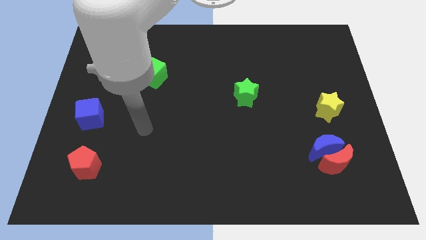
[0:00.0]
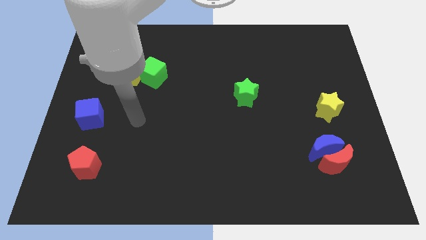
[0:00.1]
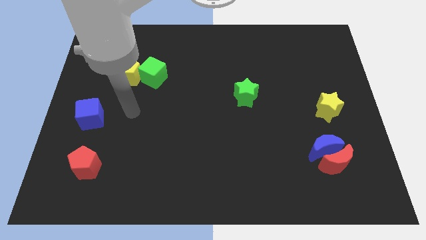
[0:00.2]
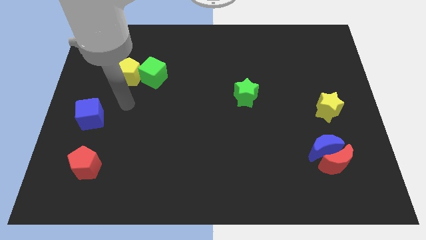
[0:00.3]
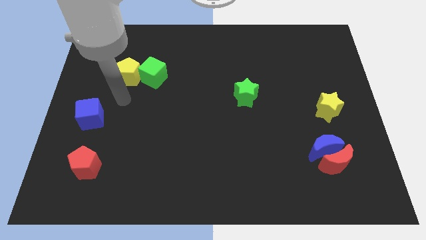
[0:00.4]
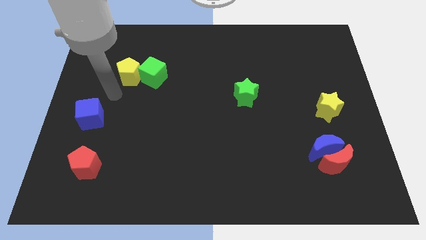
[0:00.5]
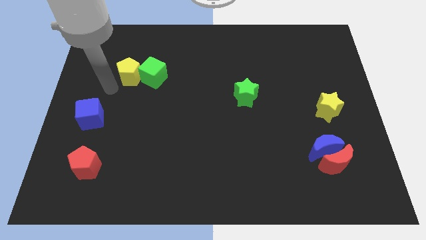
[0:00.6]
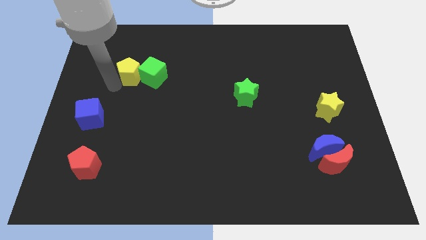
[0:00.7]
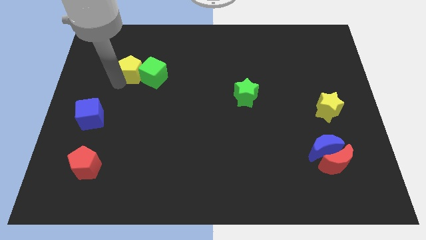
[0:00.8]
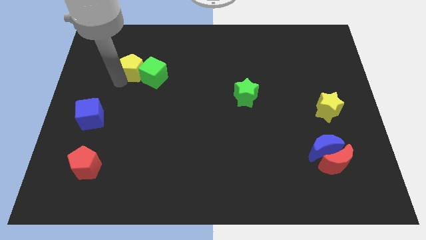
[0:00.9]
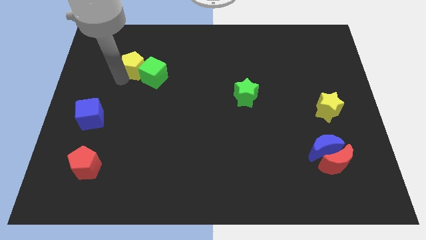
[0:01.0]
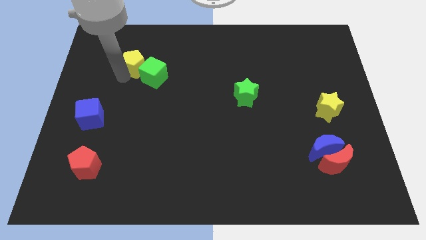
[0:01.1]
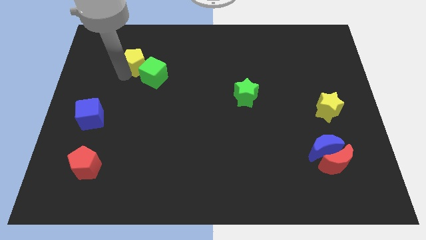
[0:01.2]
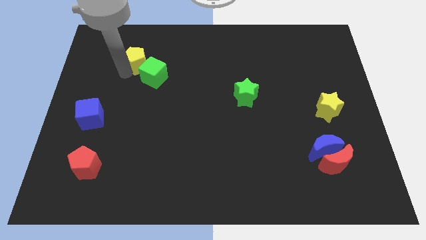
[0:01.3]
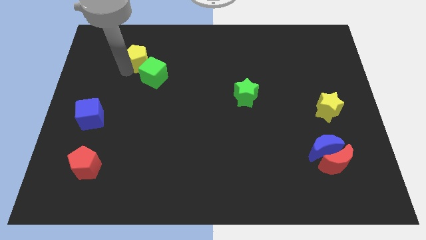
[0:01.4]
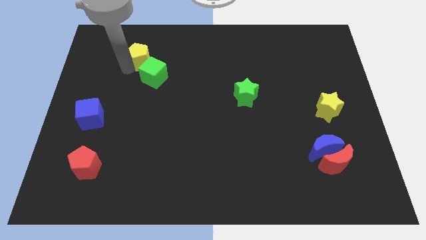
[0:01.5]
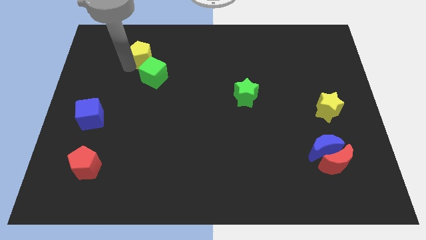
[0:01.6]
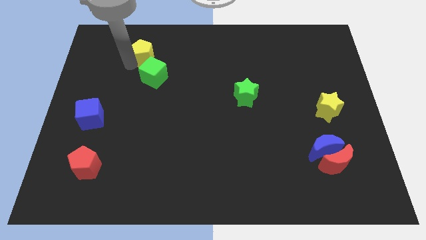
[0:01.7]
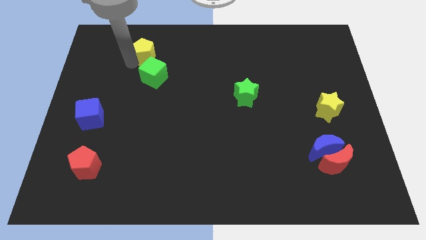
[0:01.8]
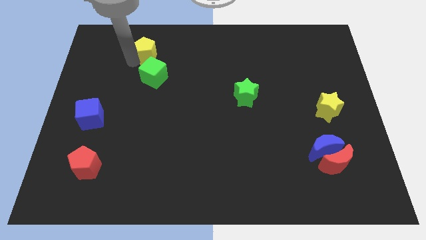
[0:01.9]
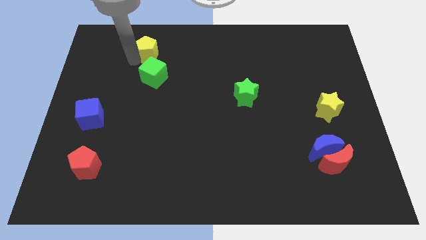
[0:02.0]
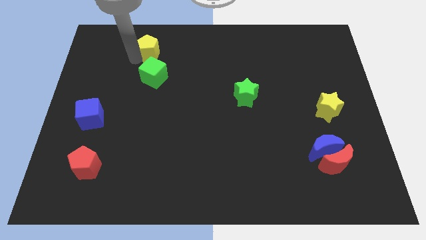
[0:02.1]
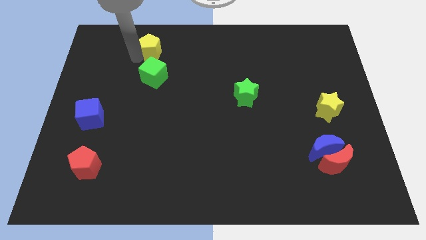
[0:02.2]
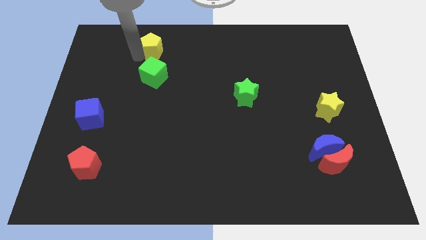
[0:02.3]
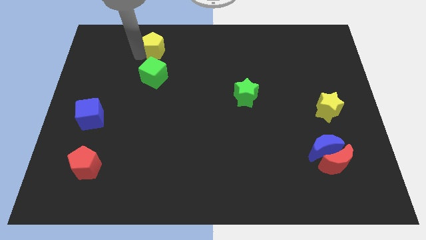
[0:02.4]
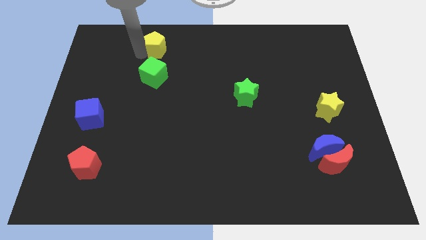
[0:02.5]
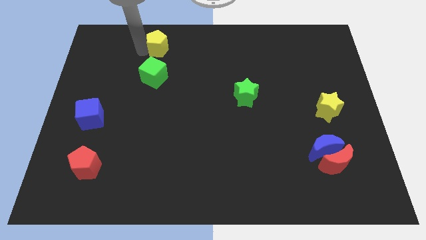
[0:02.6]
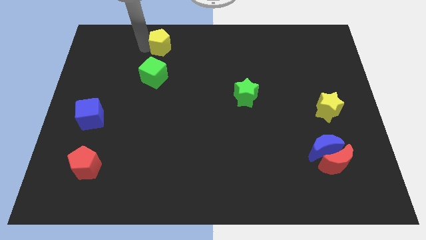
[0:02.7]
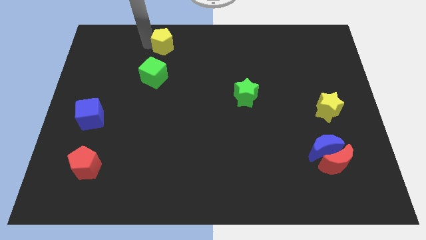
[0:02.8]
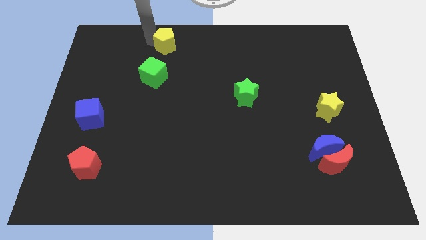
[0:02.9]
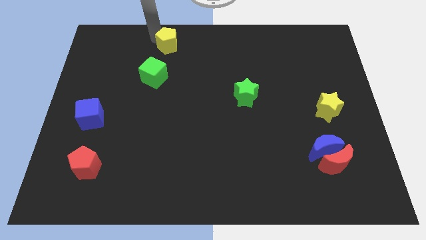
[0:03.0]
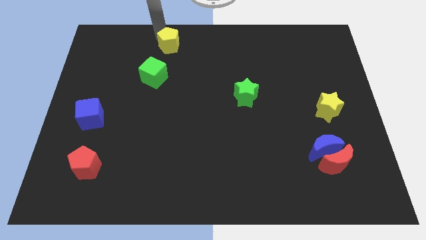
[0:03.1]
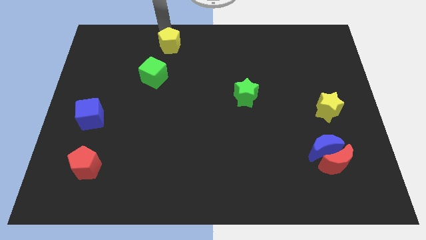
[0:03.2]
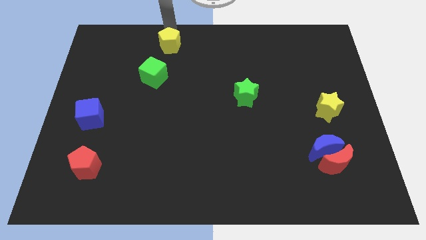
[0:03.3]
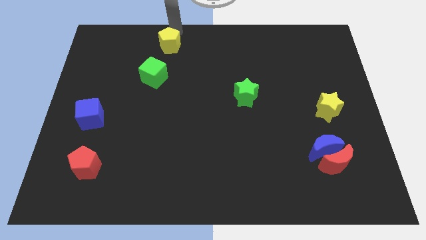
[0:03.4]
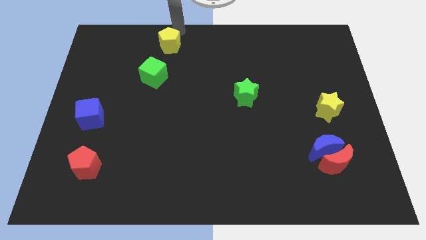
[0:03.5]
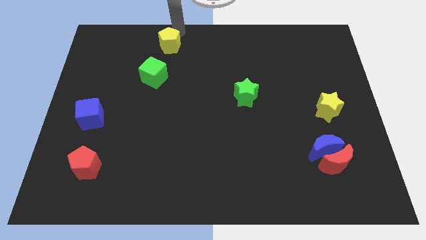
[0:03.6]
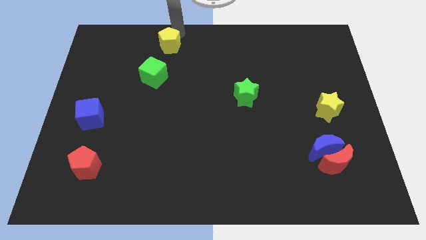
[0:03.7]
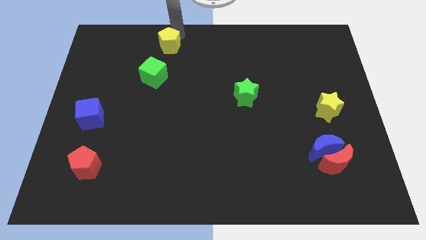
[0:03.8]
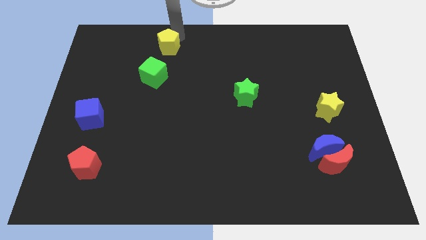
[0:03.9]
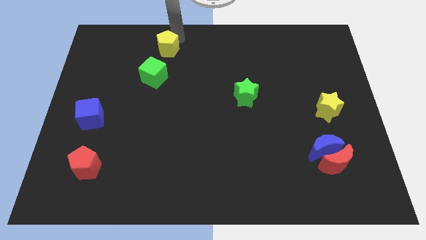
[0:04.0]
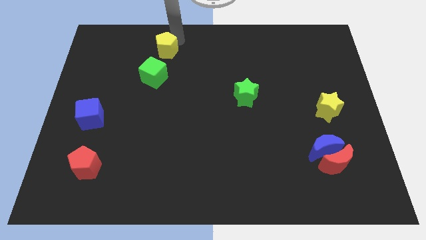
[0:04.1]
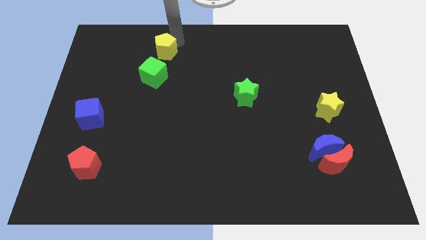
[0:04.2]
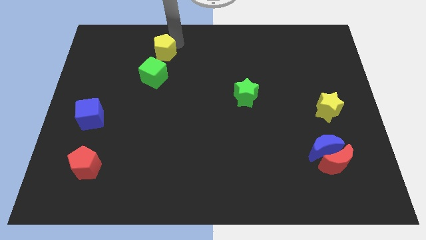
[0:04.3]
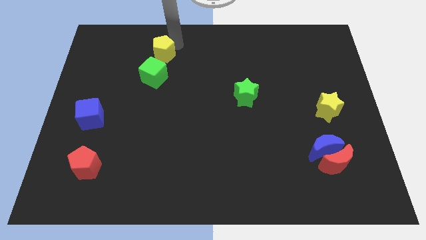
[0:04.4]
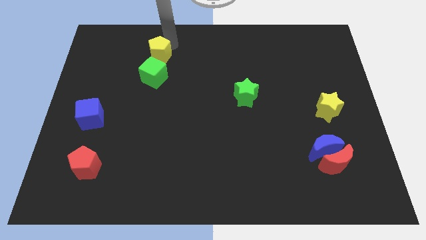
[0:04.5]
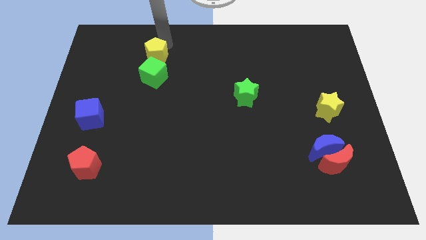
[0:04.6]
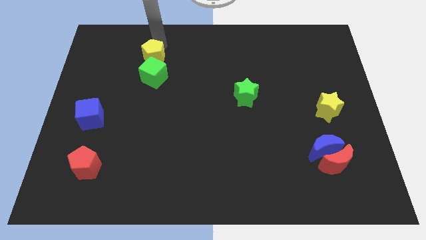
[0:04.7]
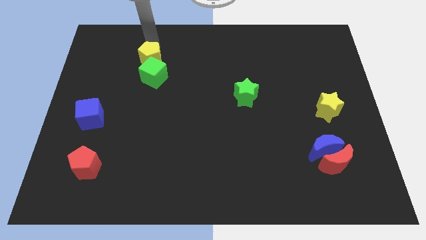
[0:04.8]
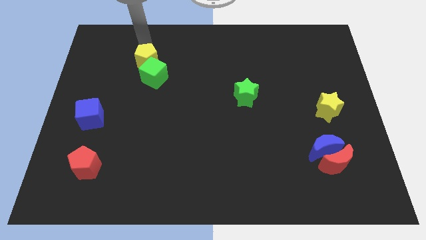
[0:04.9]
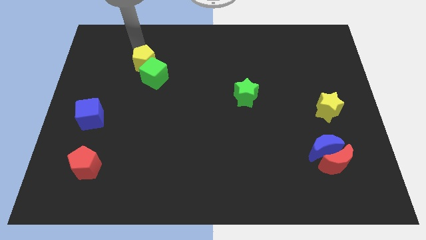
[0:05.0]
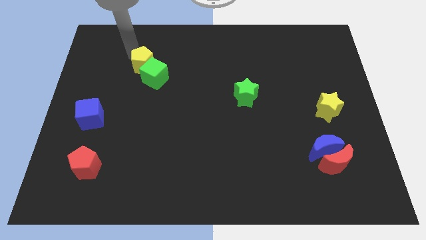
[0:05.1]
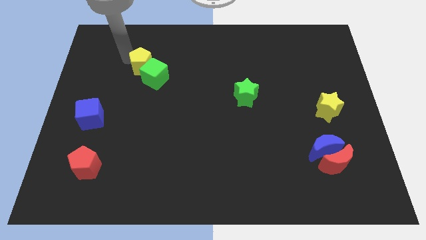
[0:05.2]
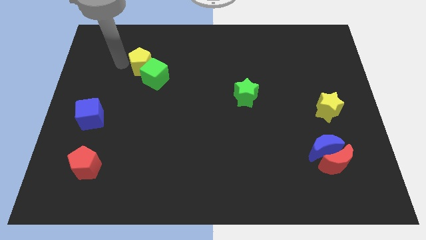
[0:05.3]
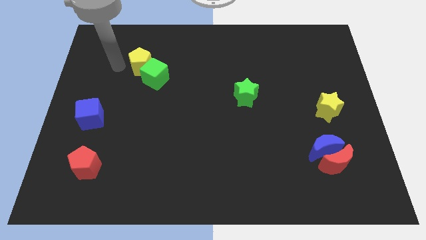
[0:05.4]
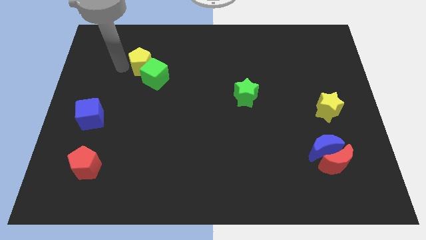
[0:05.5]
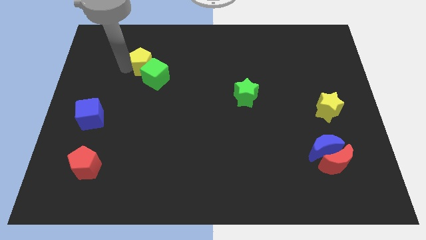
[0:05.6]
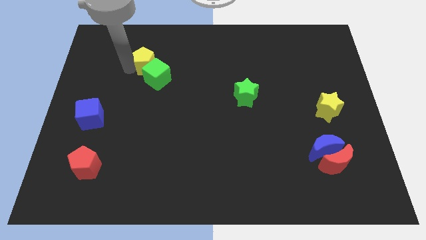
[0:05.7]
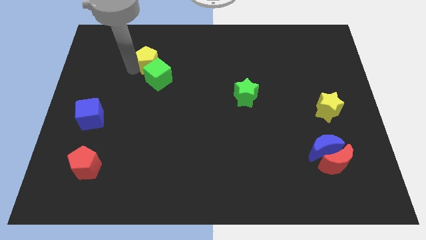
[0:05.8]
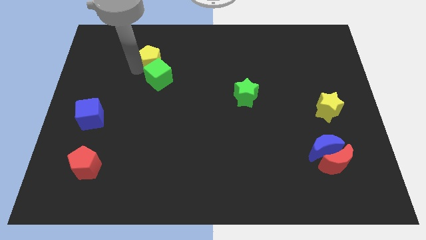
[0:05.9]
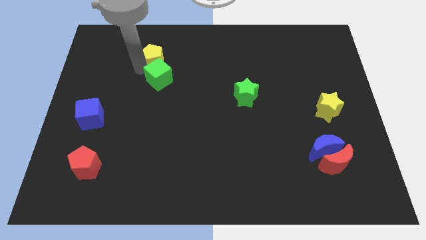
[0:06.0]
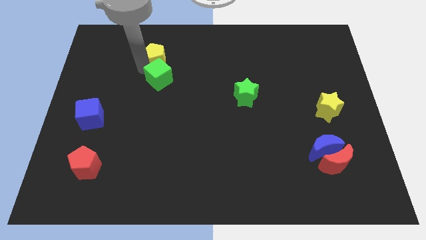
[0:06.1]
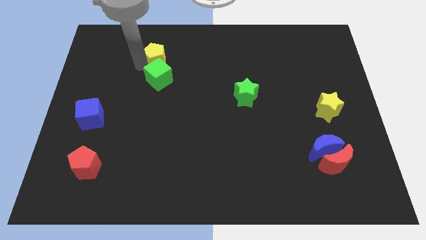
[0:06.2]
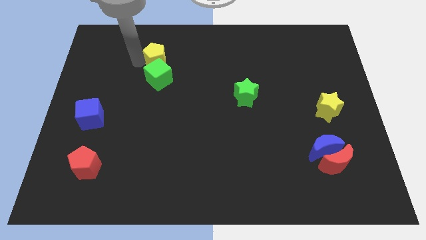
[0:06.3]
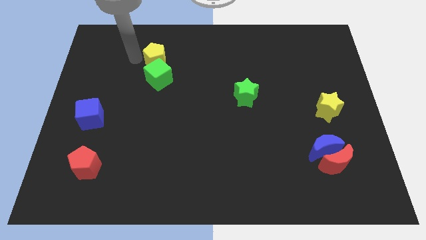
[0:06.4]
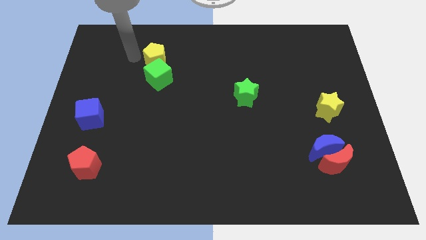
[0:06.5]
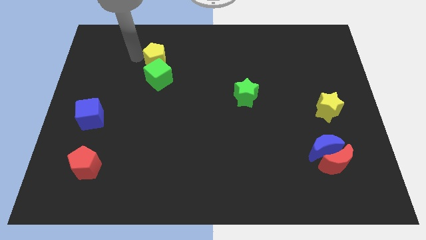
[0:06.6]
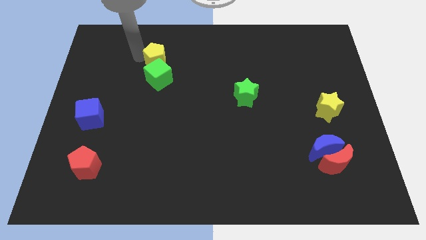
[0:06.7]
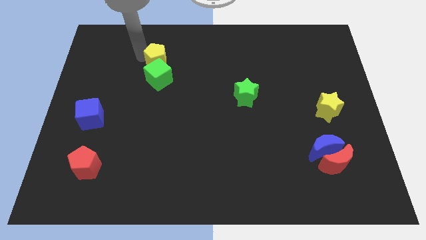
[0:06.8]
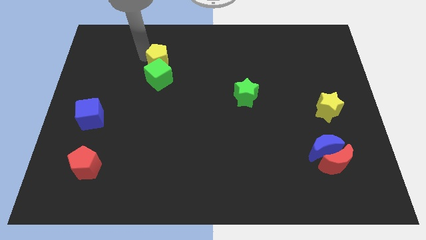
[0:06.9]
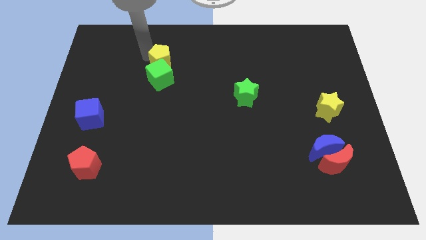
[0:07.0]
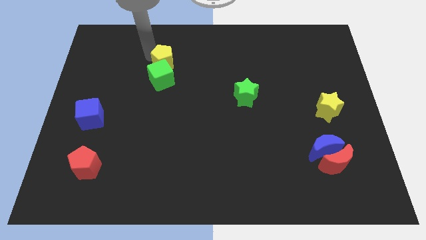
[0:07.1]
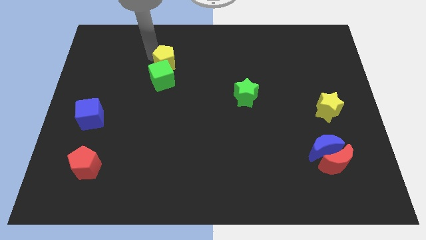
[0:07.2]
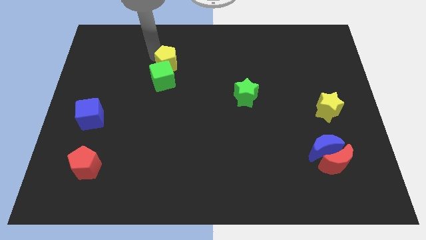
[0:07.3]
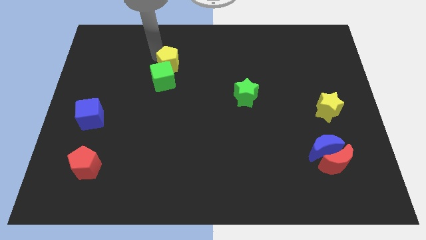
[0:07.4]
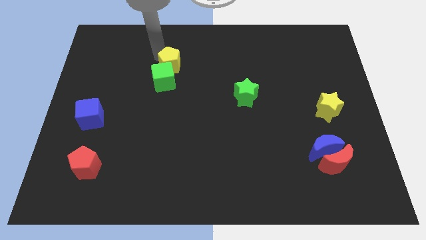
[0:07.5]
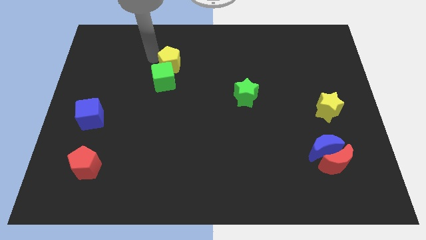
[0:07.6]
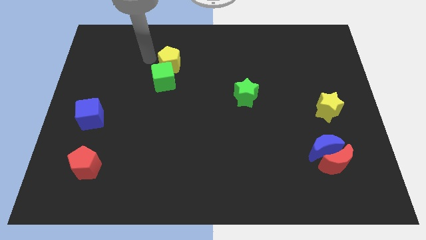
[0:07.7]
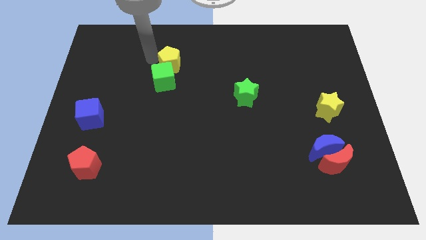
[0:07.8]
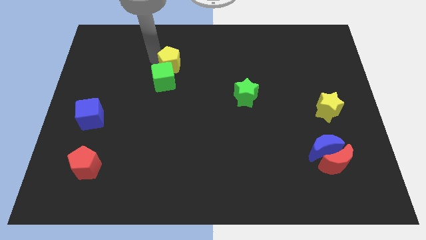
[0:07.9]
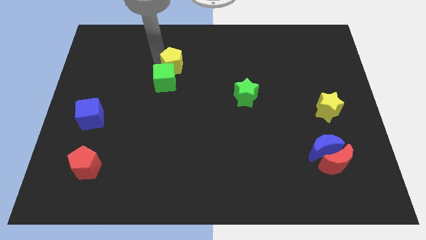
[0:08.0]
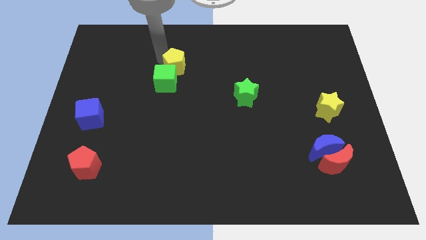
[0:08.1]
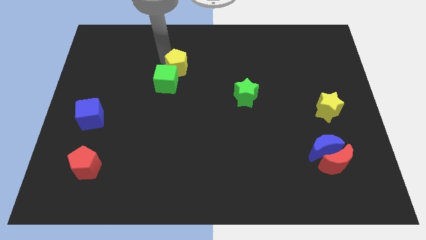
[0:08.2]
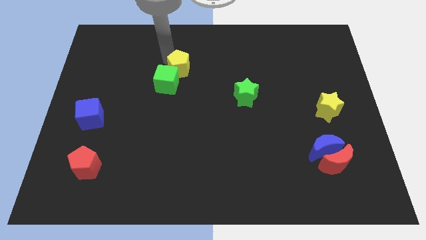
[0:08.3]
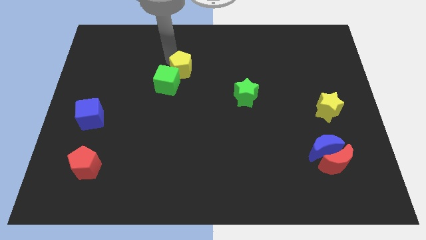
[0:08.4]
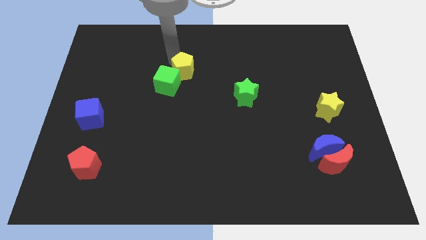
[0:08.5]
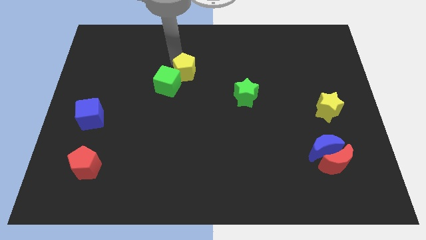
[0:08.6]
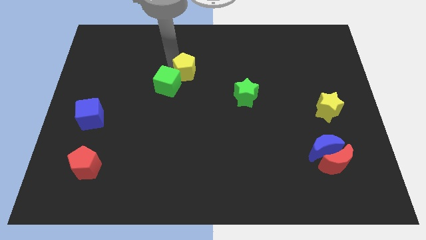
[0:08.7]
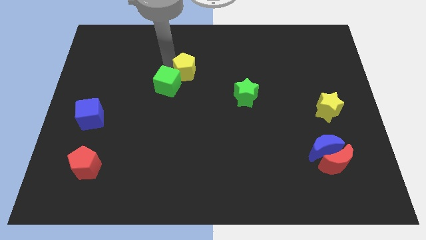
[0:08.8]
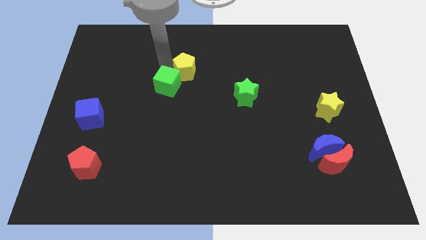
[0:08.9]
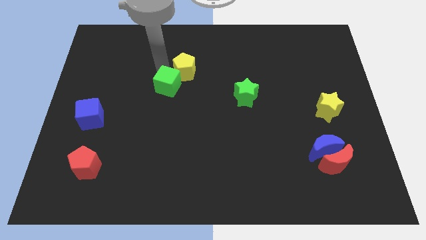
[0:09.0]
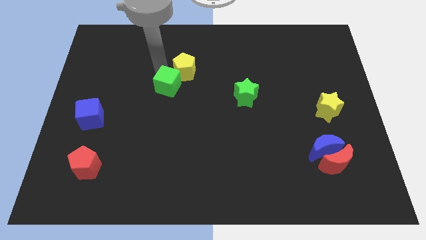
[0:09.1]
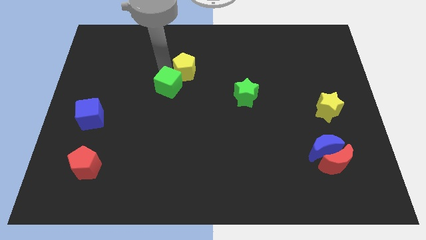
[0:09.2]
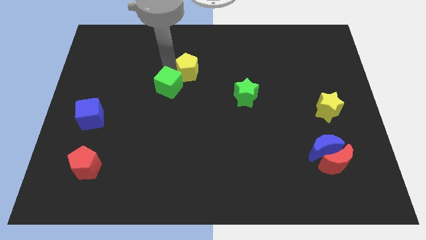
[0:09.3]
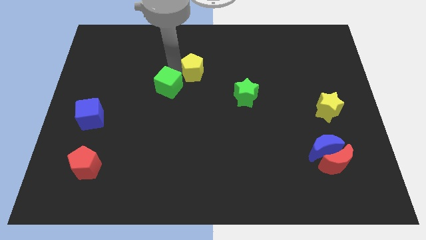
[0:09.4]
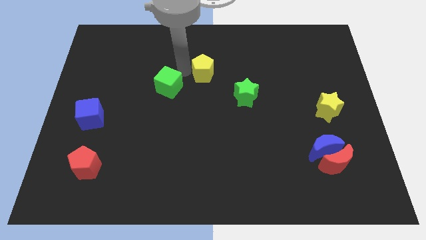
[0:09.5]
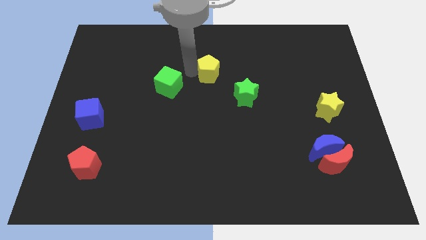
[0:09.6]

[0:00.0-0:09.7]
slide the yellow pentagon right
